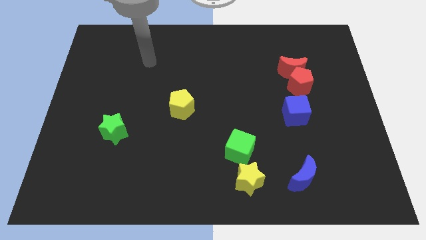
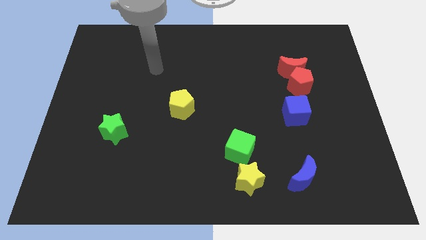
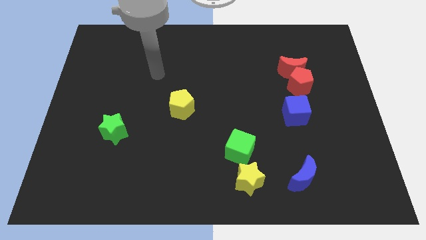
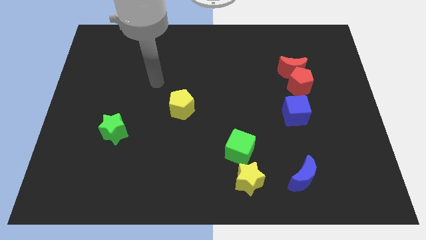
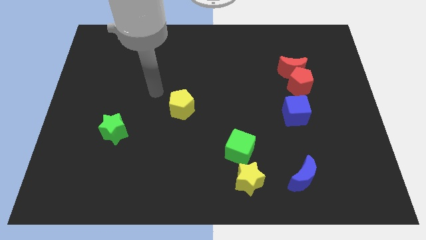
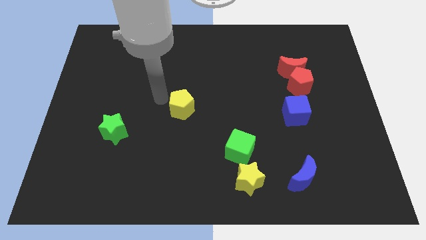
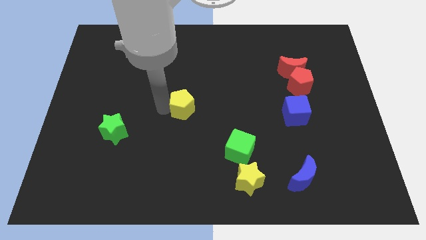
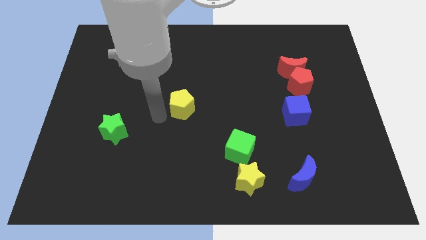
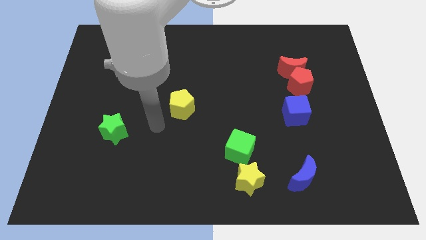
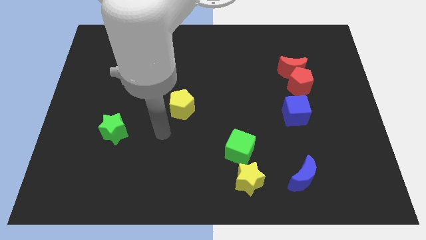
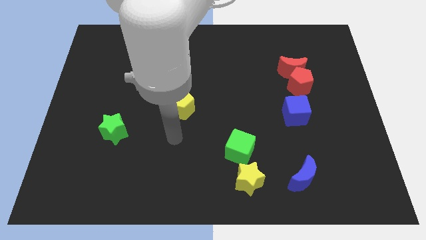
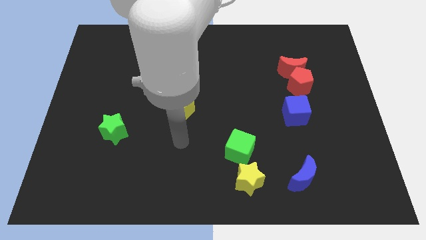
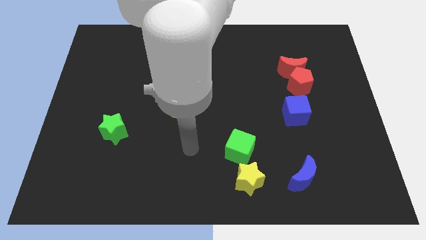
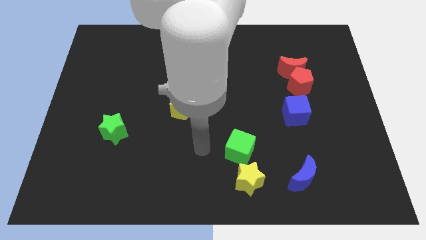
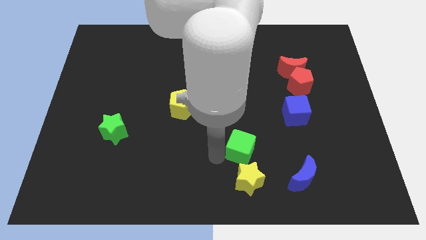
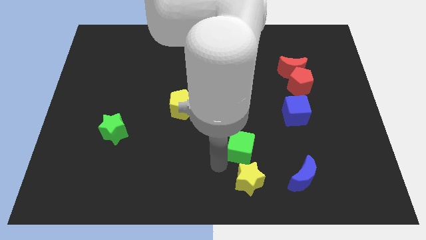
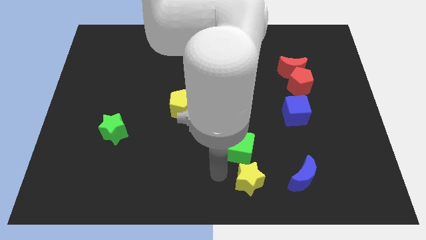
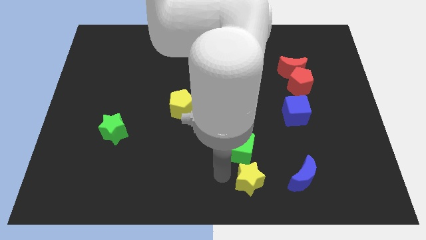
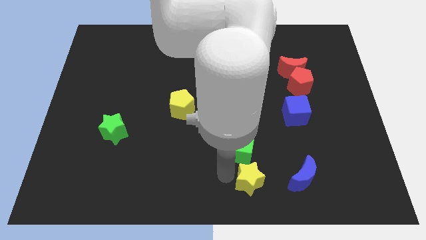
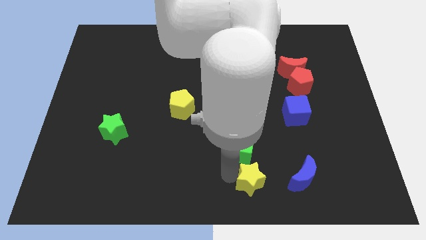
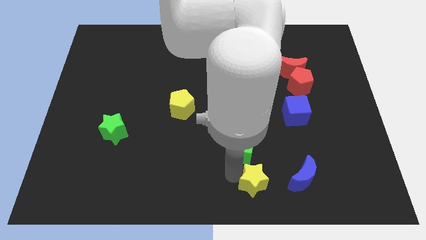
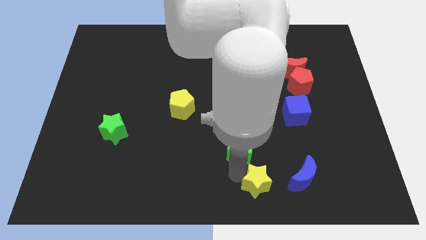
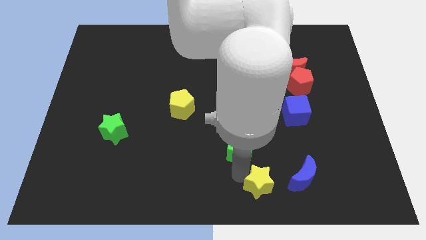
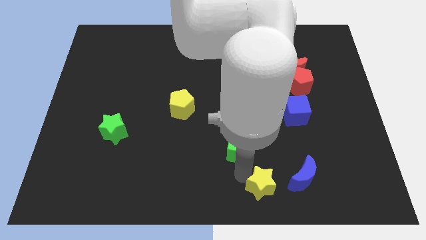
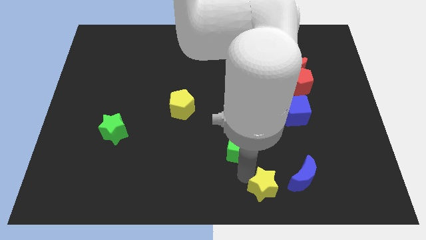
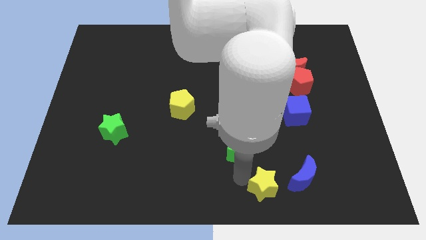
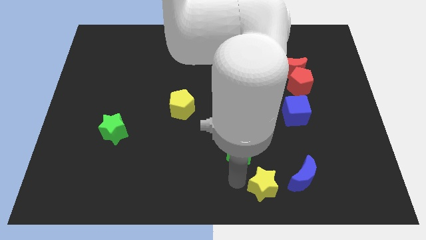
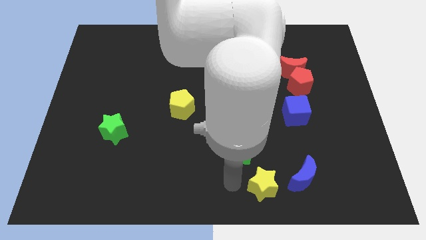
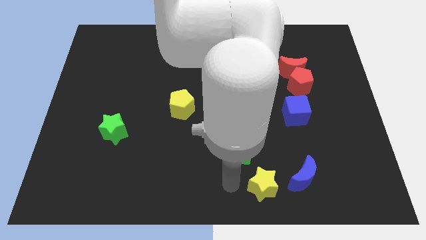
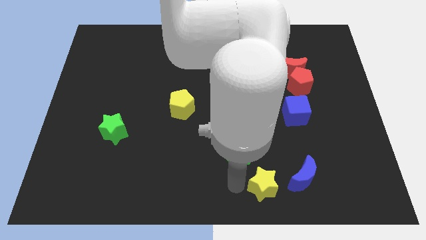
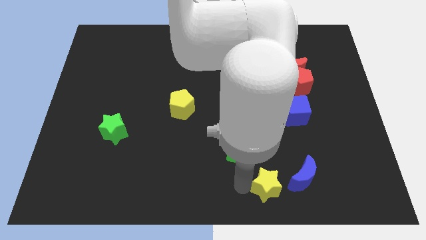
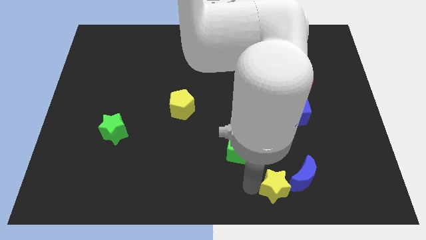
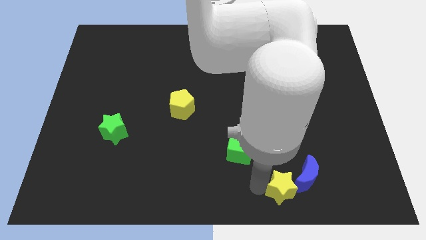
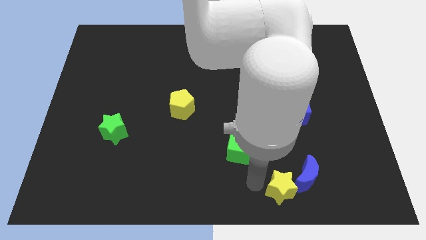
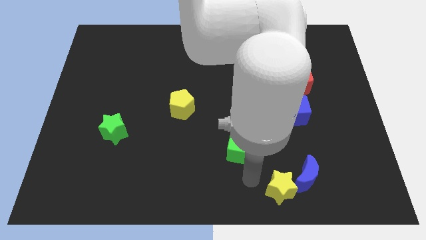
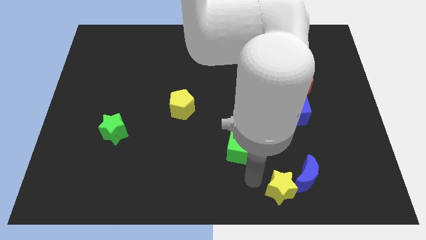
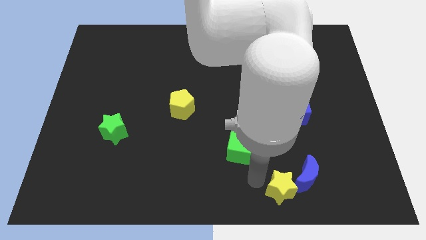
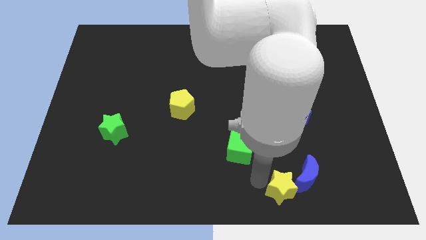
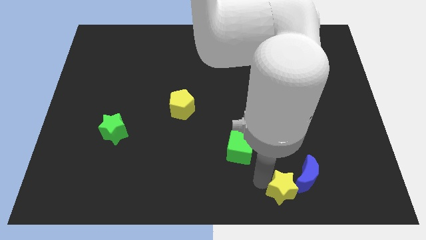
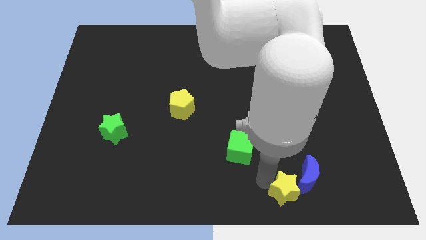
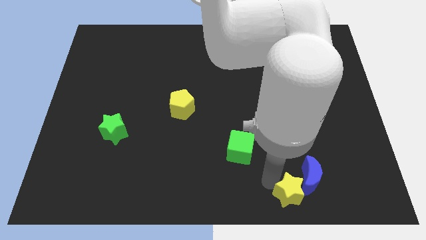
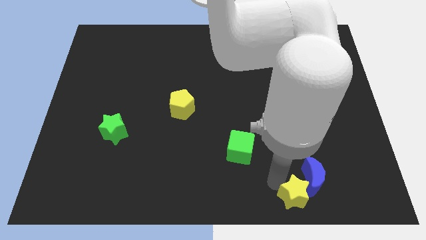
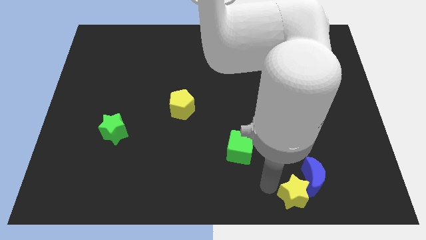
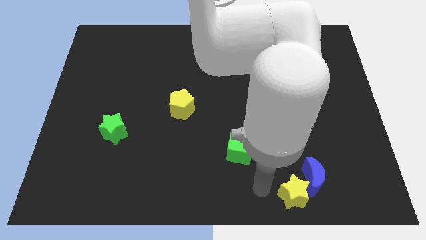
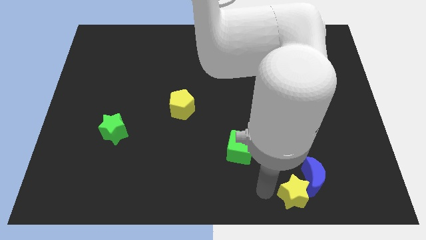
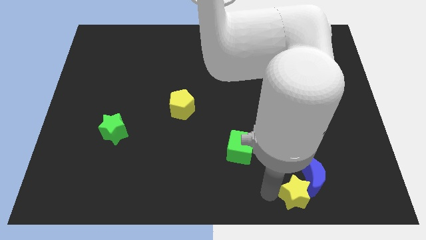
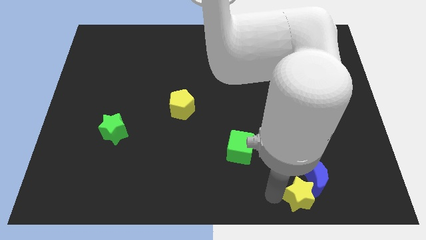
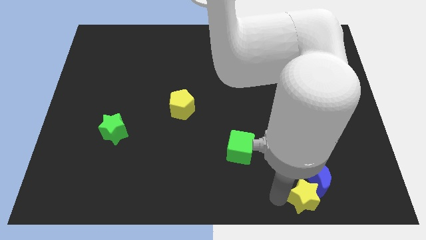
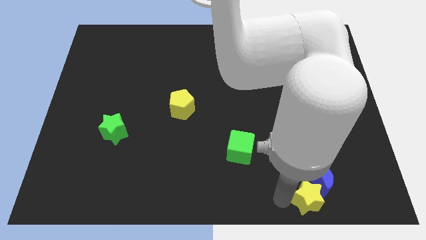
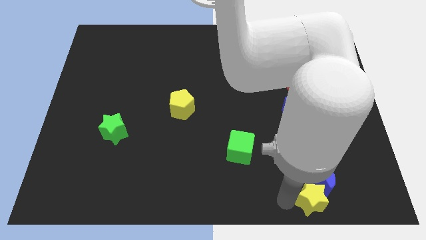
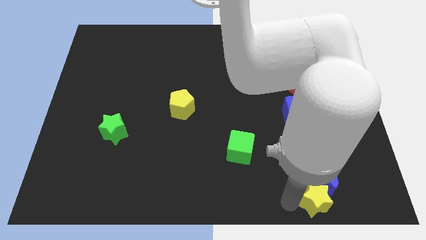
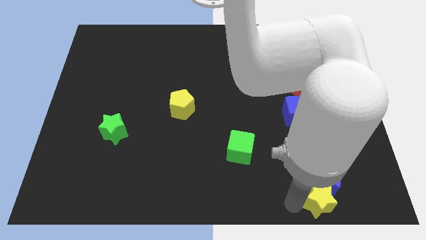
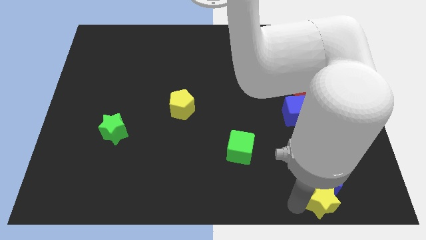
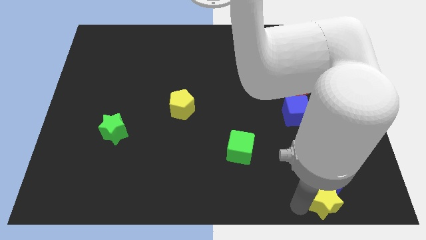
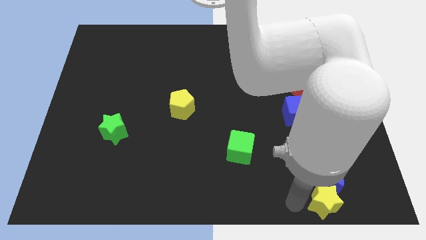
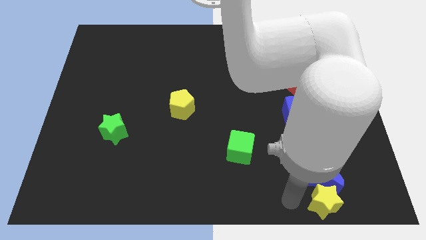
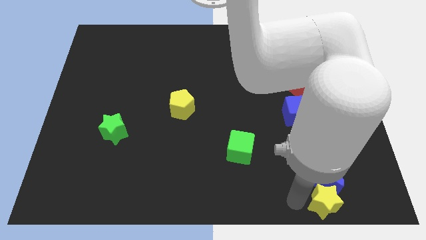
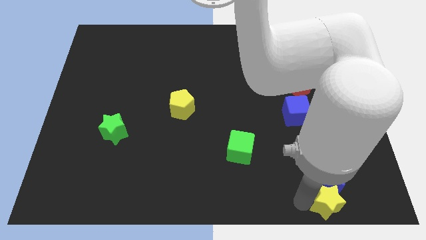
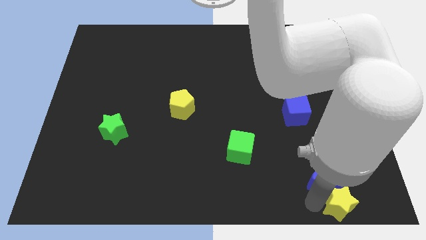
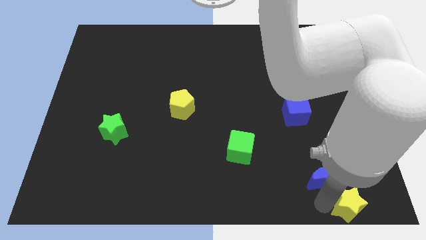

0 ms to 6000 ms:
move the yellow star to the bottom right
